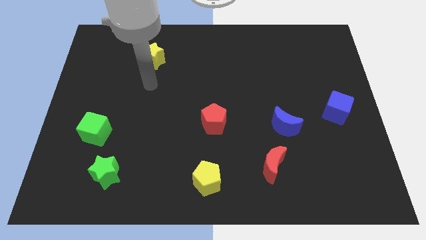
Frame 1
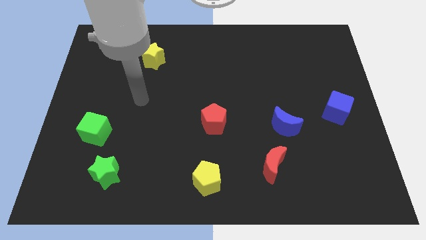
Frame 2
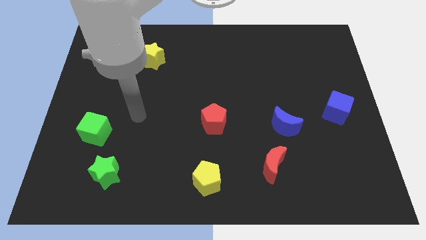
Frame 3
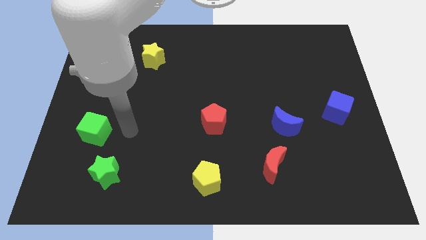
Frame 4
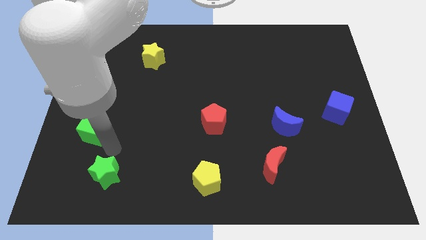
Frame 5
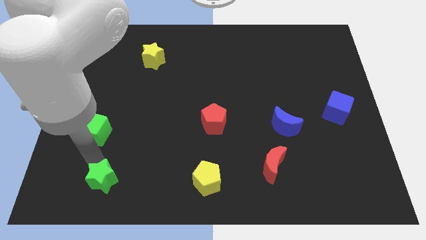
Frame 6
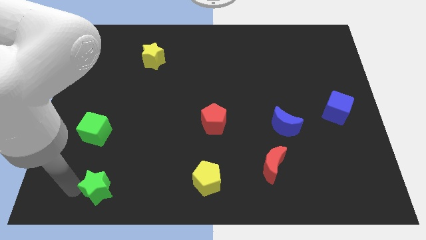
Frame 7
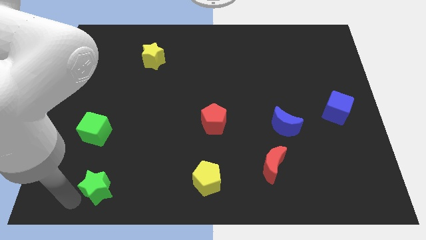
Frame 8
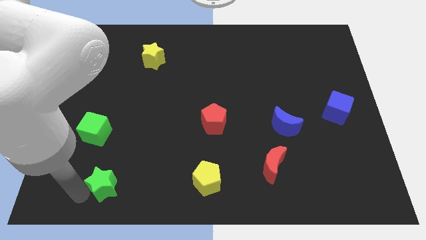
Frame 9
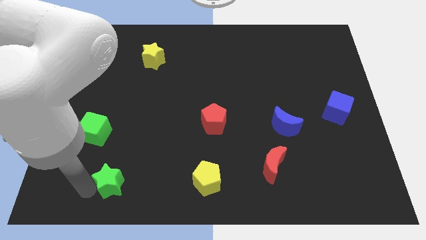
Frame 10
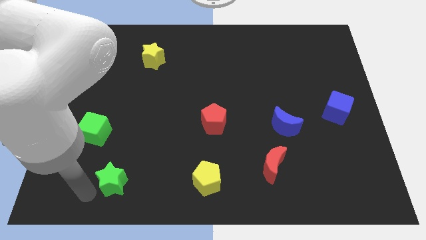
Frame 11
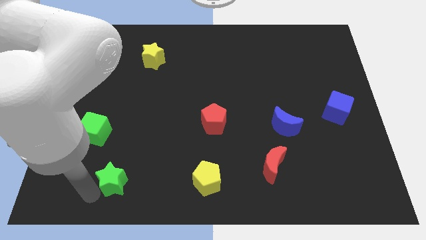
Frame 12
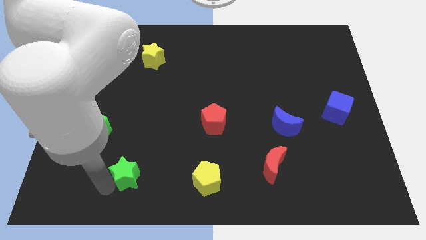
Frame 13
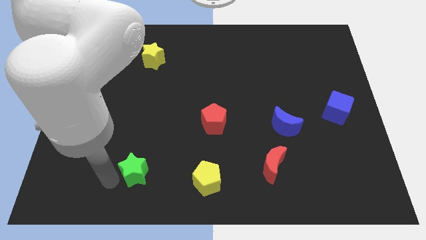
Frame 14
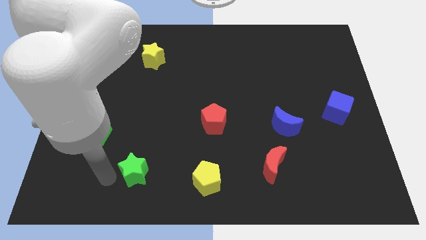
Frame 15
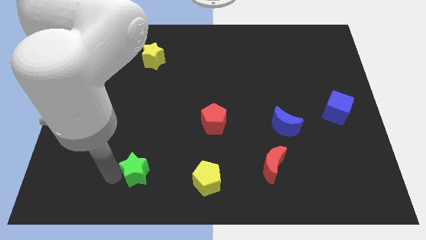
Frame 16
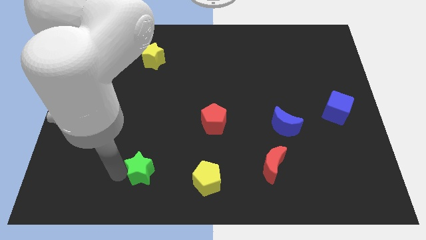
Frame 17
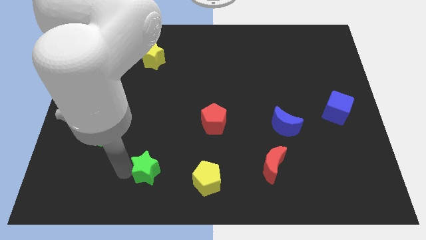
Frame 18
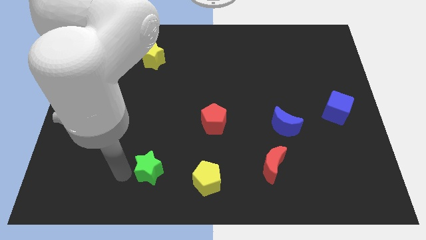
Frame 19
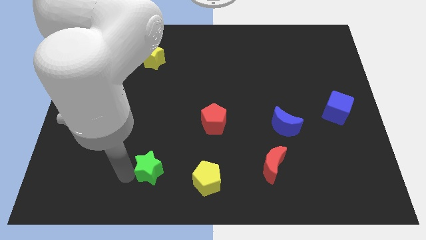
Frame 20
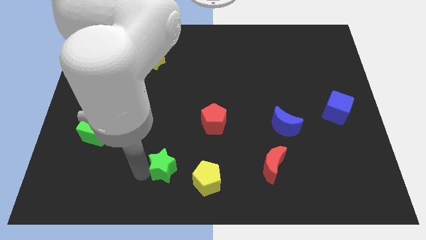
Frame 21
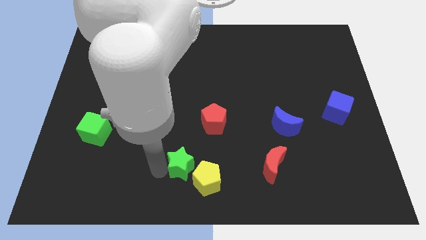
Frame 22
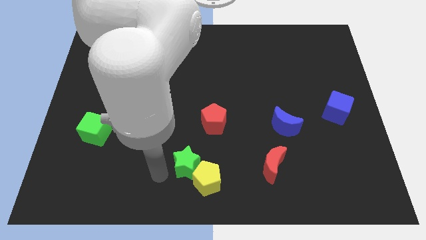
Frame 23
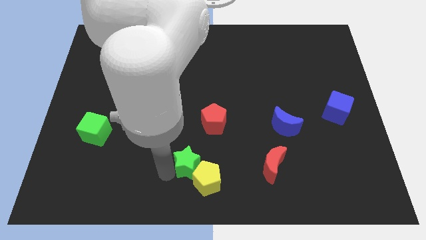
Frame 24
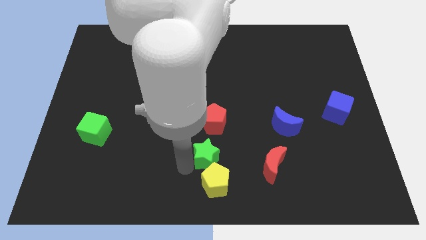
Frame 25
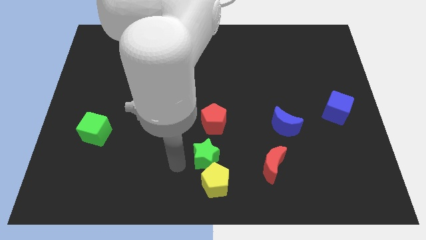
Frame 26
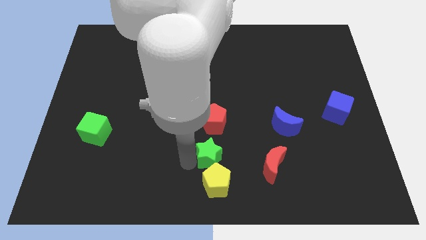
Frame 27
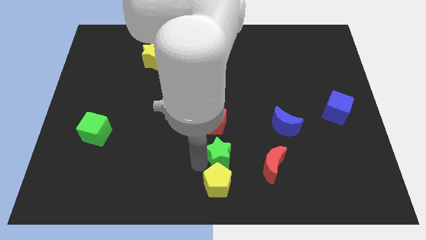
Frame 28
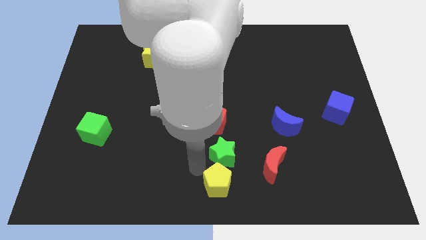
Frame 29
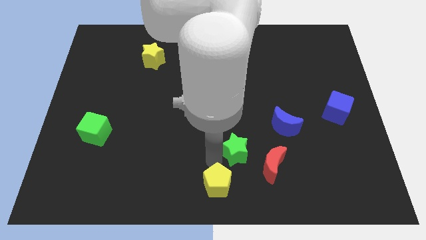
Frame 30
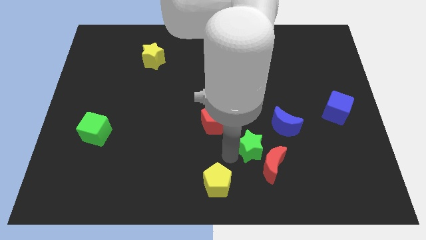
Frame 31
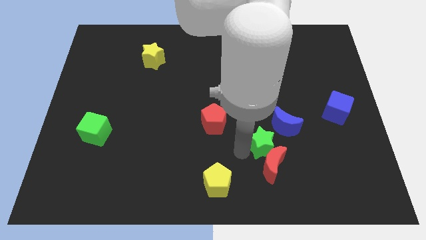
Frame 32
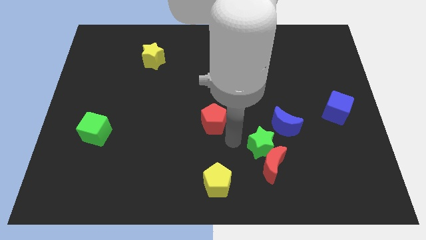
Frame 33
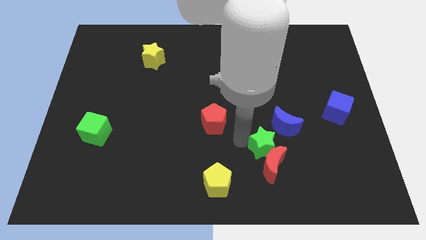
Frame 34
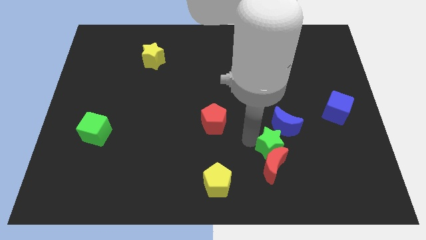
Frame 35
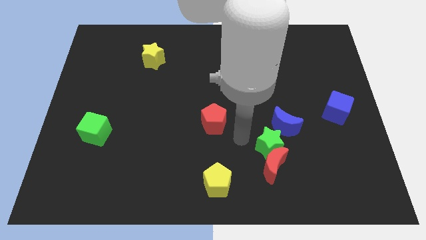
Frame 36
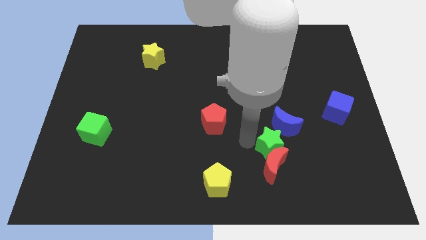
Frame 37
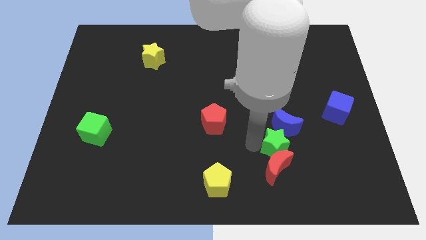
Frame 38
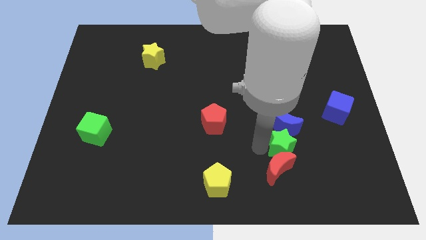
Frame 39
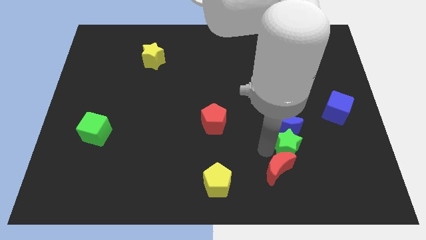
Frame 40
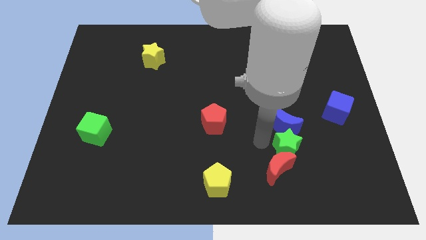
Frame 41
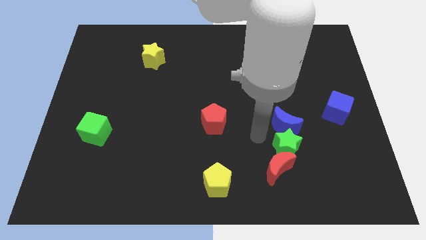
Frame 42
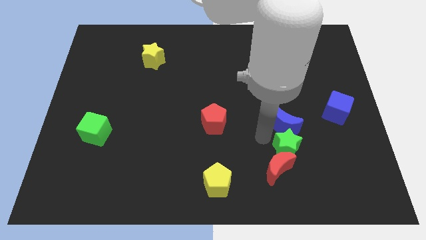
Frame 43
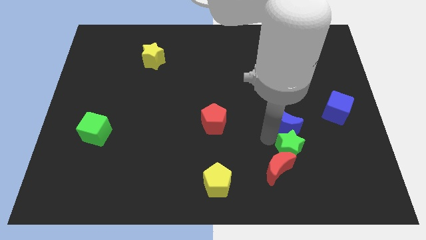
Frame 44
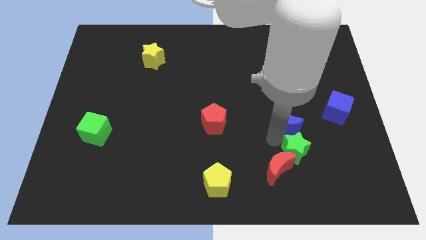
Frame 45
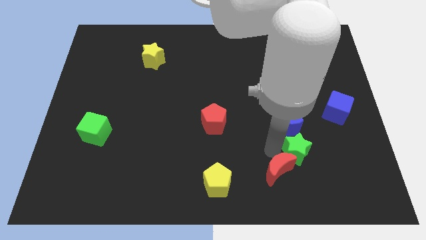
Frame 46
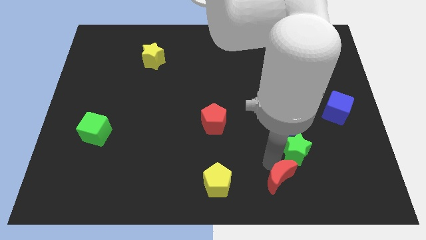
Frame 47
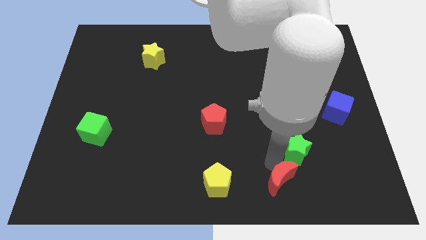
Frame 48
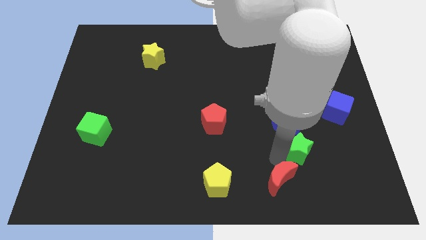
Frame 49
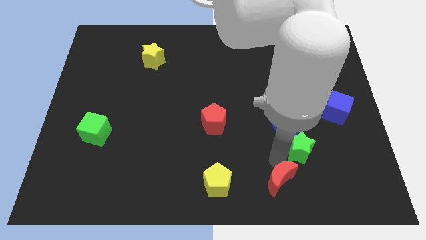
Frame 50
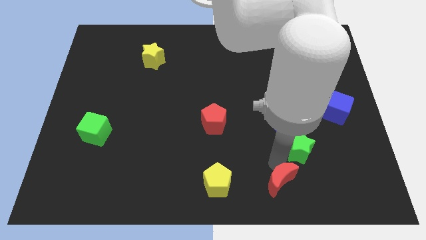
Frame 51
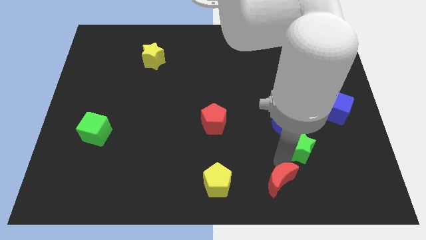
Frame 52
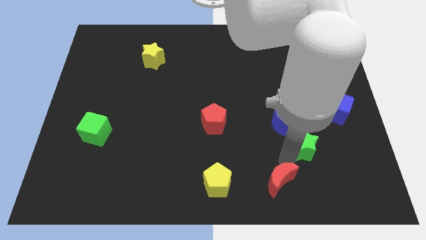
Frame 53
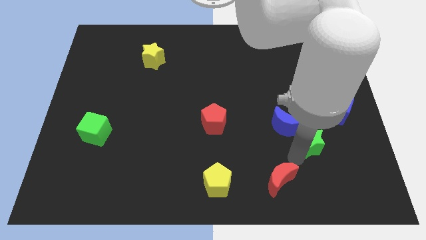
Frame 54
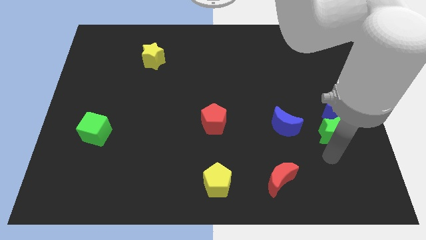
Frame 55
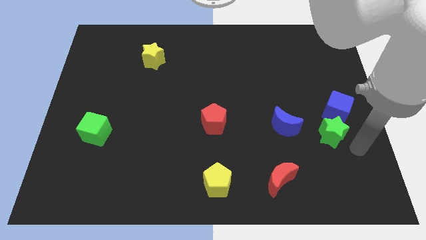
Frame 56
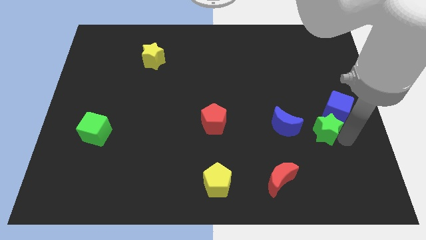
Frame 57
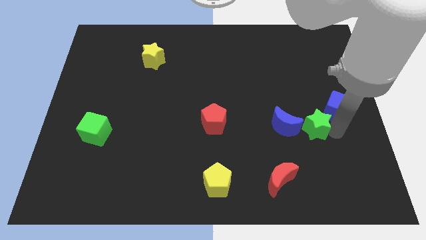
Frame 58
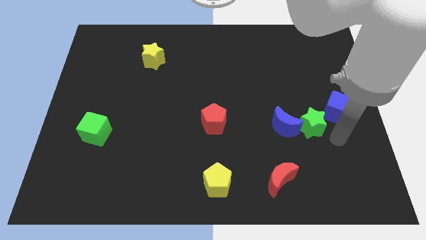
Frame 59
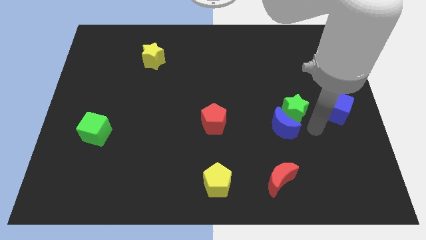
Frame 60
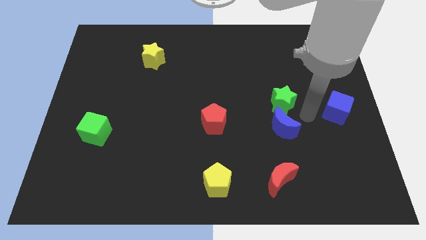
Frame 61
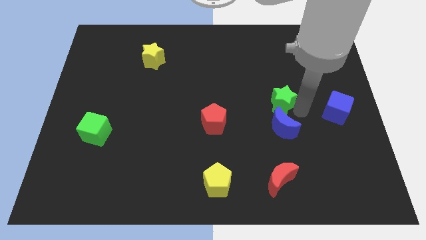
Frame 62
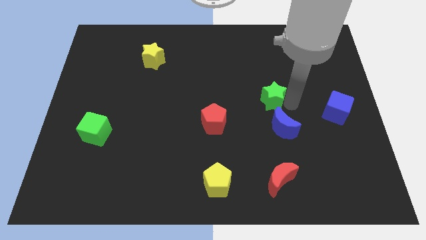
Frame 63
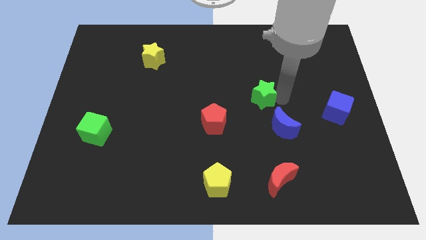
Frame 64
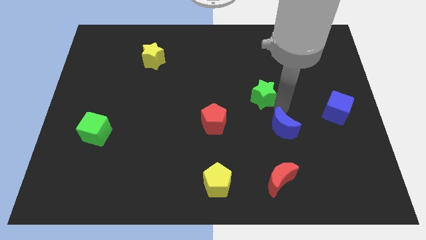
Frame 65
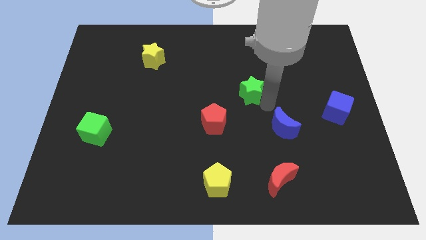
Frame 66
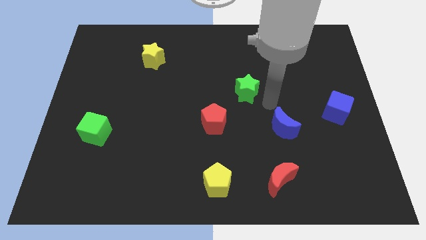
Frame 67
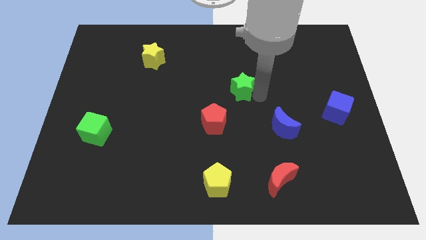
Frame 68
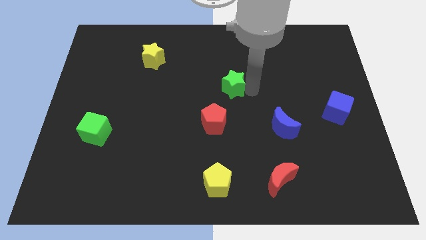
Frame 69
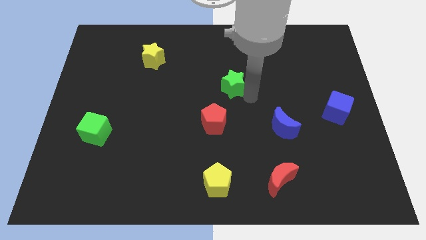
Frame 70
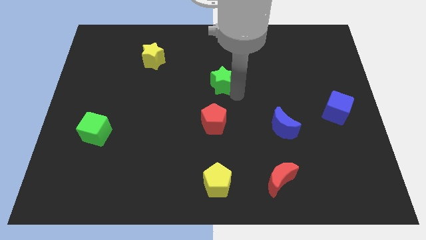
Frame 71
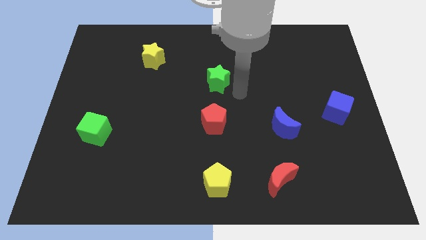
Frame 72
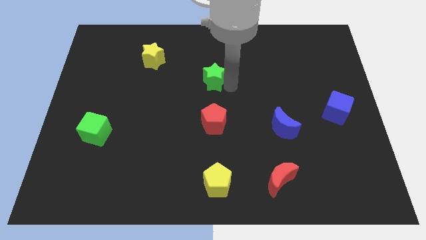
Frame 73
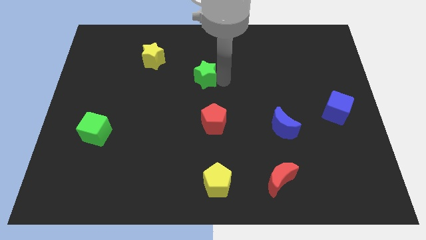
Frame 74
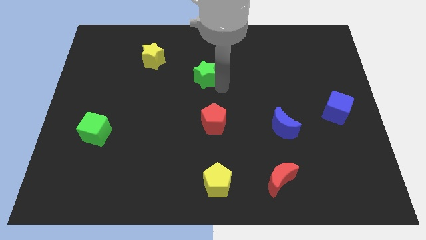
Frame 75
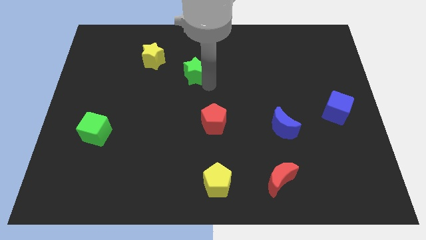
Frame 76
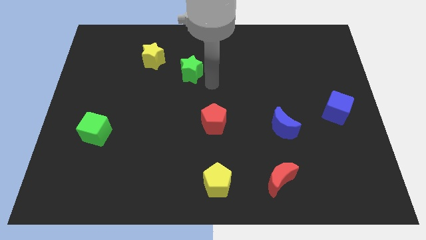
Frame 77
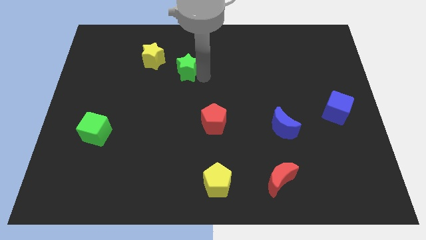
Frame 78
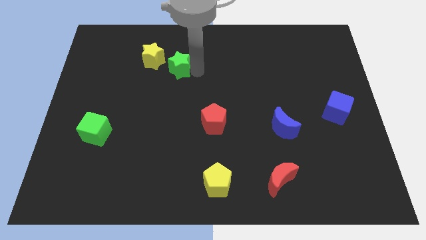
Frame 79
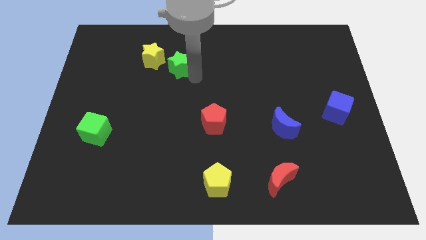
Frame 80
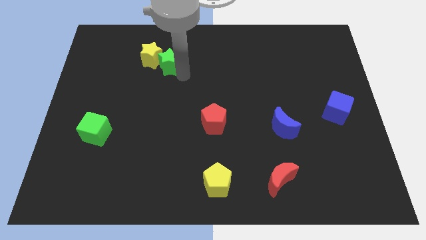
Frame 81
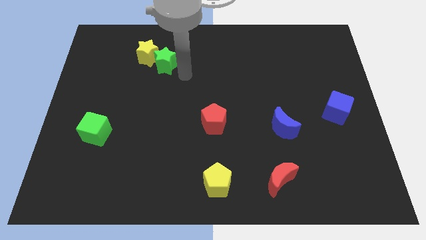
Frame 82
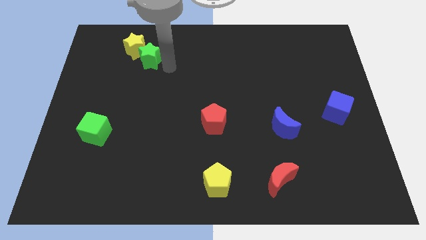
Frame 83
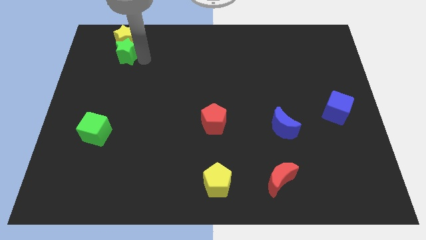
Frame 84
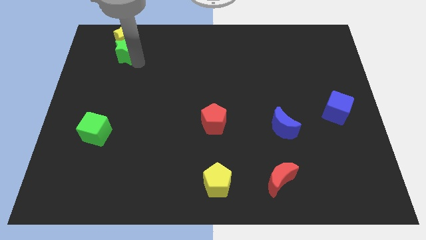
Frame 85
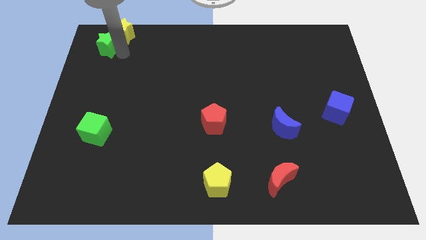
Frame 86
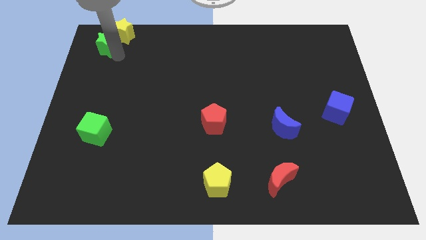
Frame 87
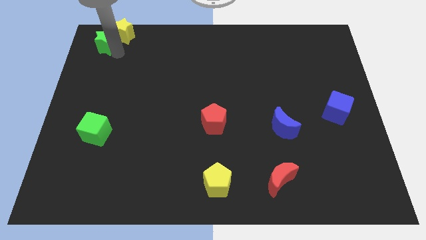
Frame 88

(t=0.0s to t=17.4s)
slide the green star to the upper left corner
